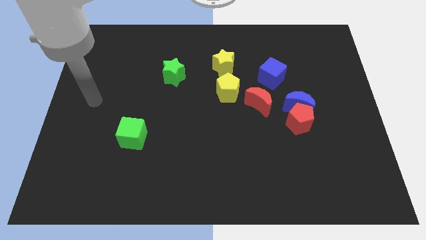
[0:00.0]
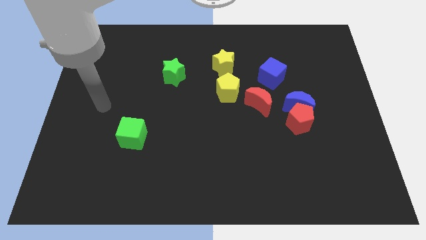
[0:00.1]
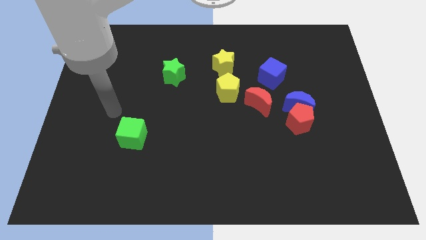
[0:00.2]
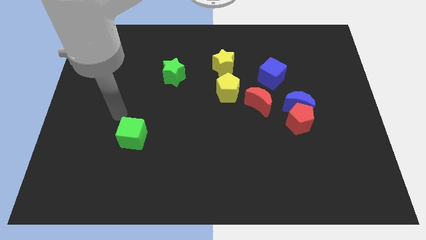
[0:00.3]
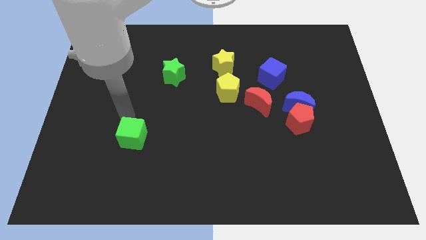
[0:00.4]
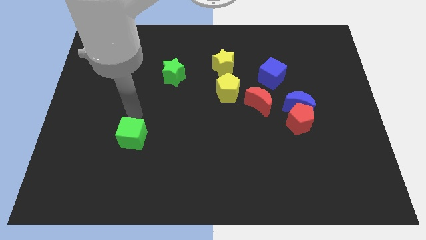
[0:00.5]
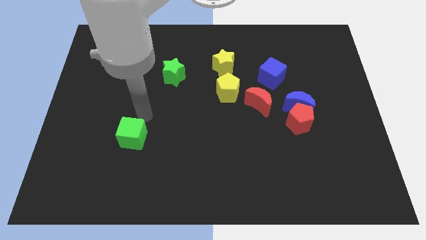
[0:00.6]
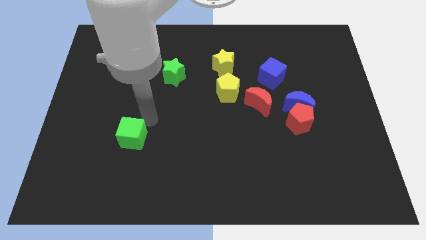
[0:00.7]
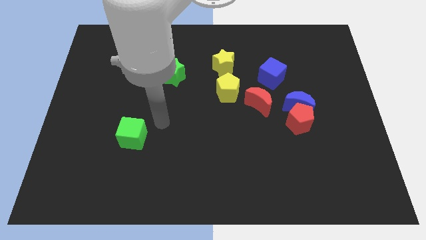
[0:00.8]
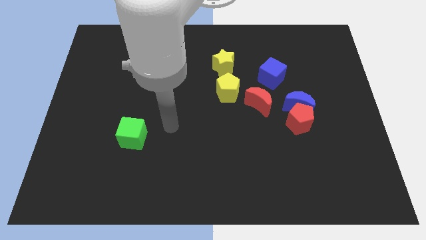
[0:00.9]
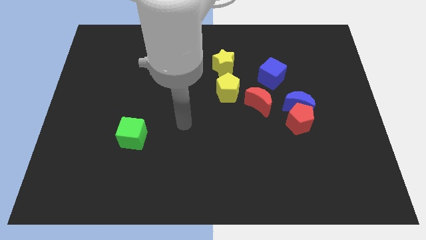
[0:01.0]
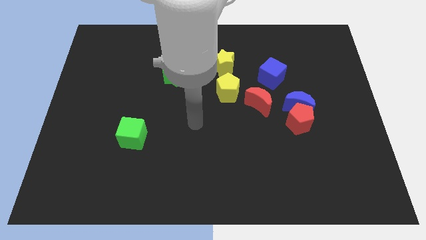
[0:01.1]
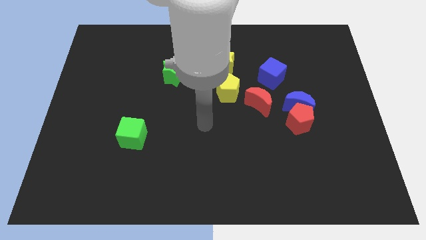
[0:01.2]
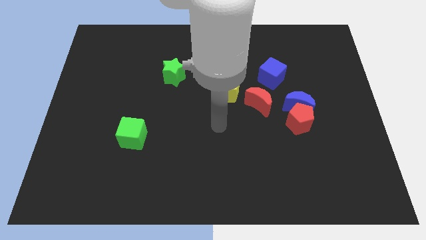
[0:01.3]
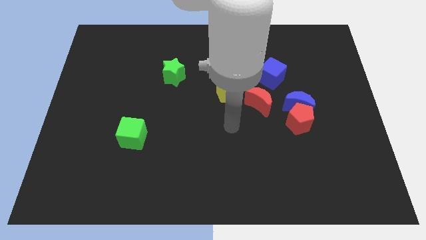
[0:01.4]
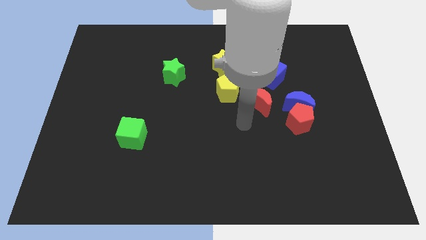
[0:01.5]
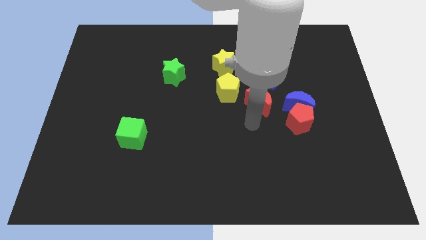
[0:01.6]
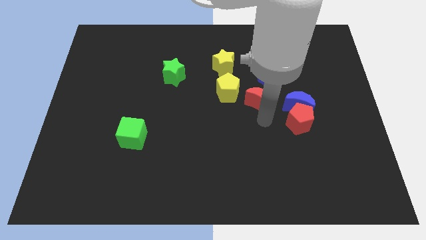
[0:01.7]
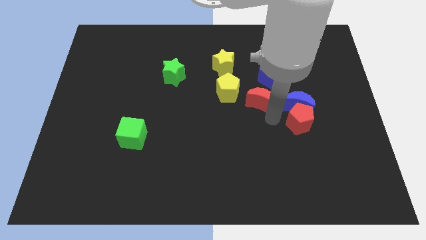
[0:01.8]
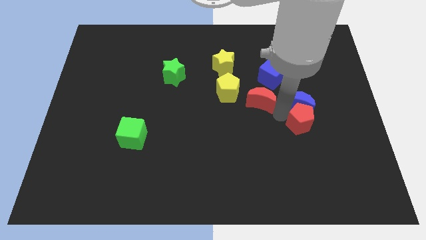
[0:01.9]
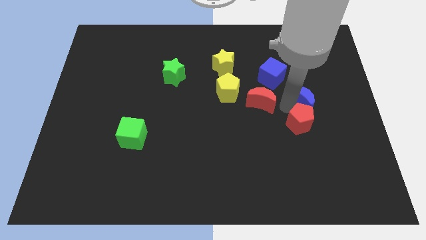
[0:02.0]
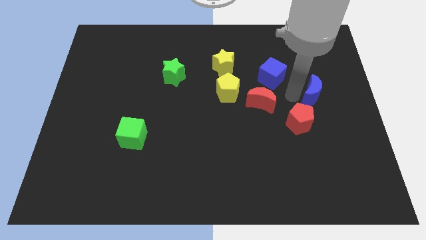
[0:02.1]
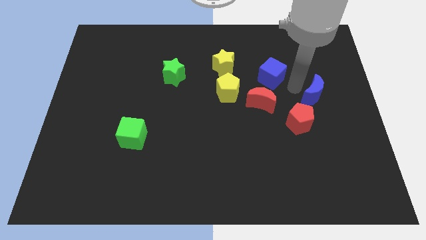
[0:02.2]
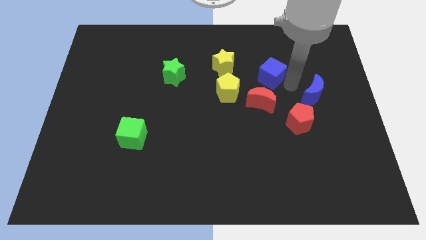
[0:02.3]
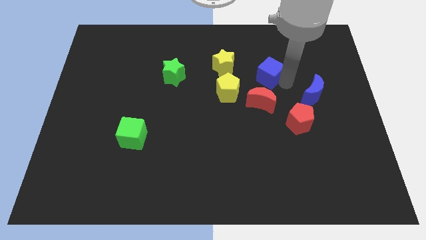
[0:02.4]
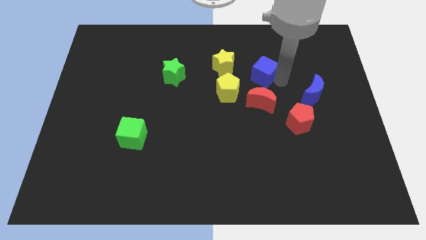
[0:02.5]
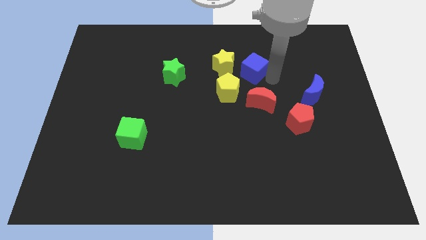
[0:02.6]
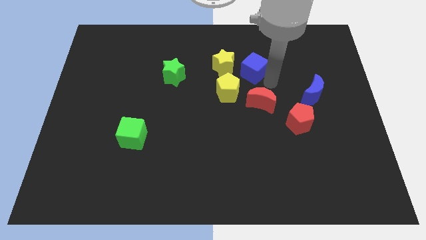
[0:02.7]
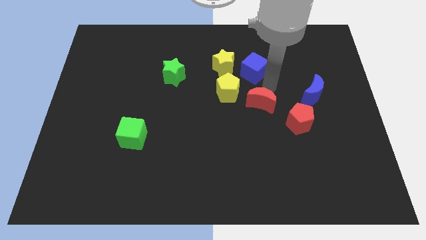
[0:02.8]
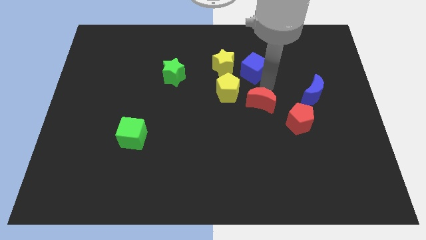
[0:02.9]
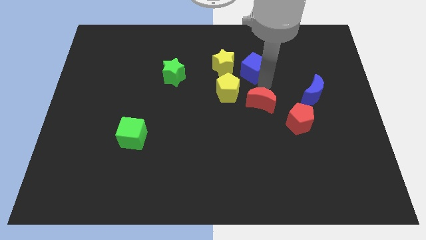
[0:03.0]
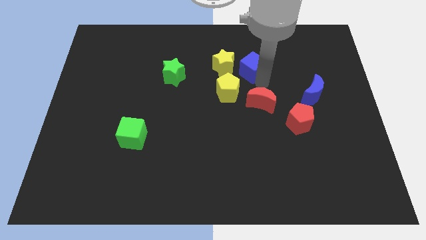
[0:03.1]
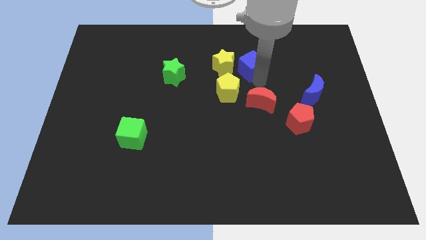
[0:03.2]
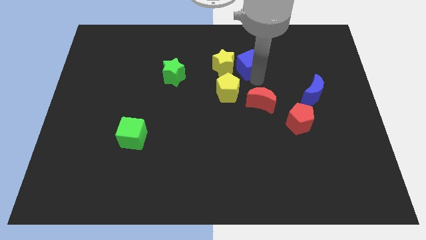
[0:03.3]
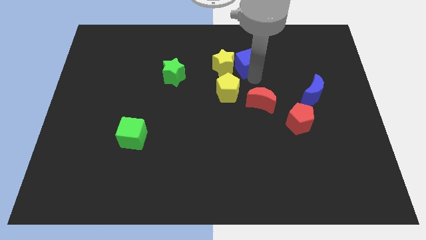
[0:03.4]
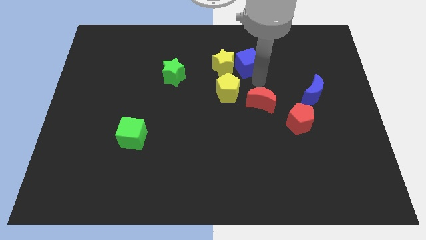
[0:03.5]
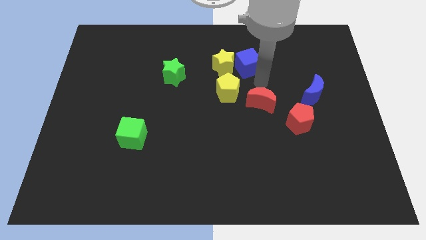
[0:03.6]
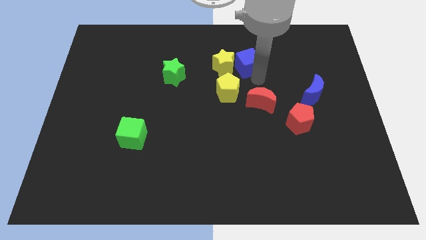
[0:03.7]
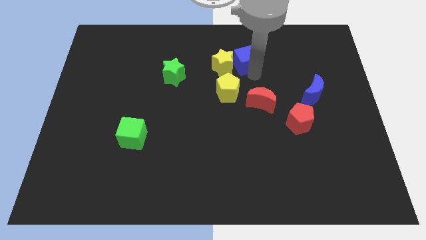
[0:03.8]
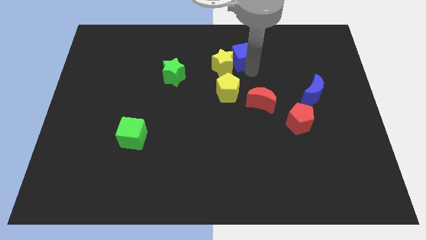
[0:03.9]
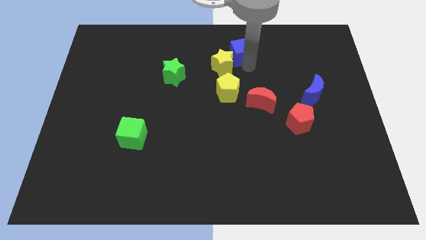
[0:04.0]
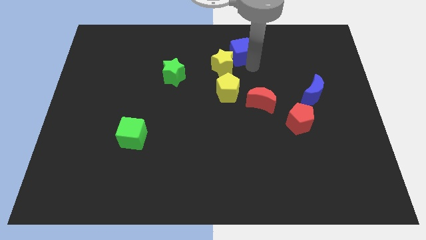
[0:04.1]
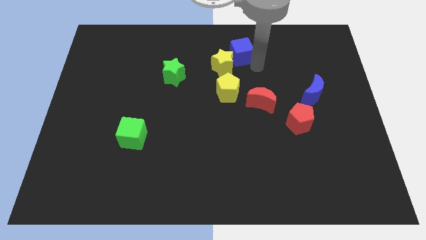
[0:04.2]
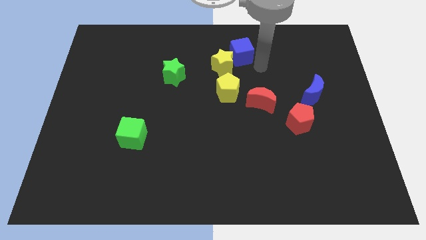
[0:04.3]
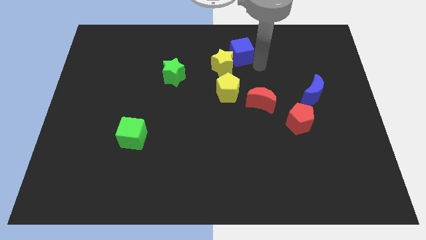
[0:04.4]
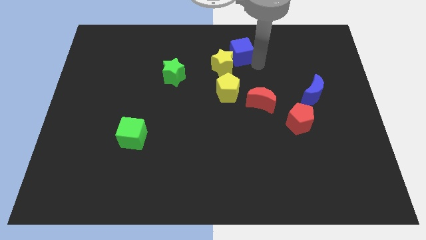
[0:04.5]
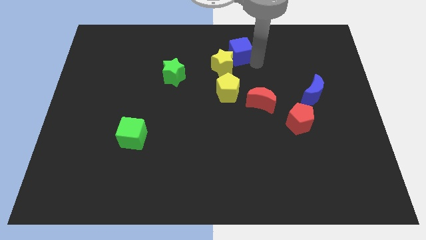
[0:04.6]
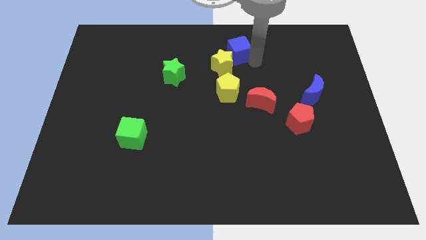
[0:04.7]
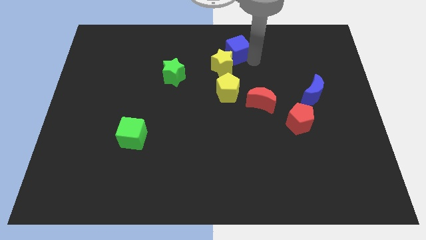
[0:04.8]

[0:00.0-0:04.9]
put the blue cube to the top side

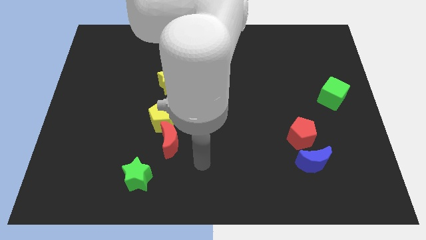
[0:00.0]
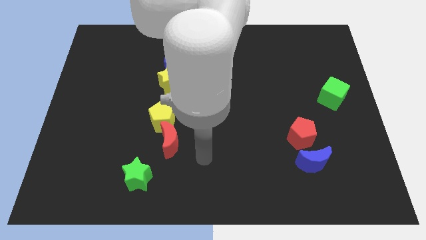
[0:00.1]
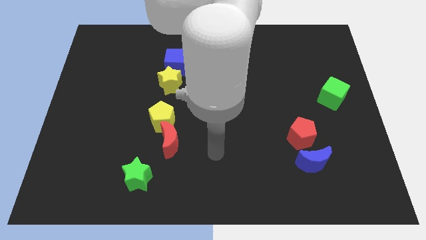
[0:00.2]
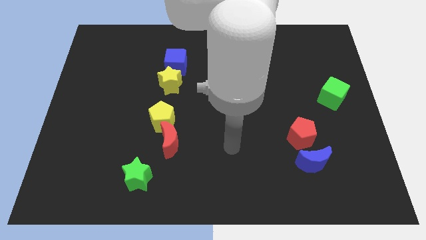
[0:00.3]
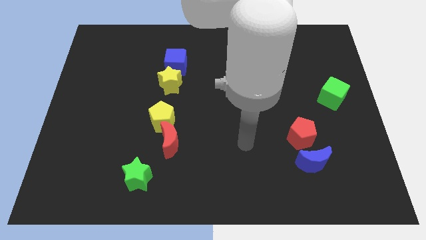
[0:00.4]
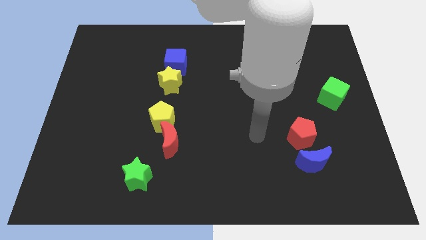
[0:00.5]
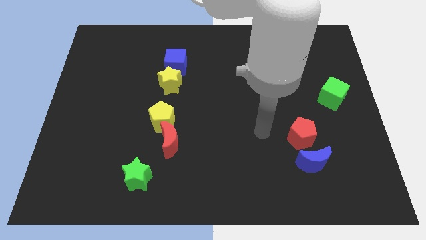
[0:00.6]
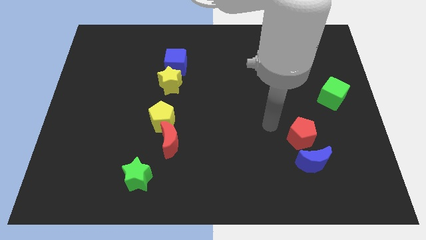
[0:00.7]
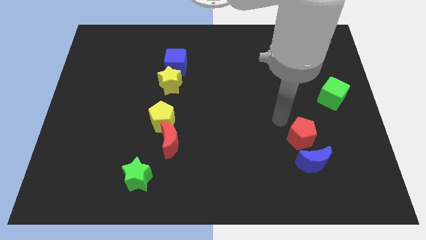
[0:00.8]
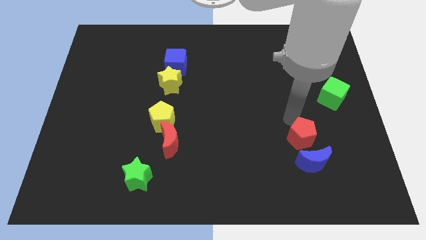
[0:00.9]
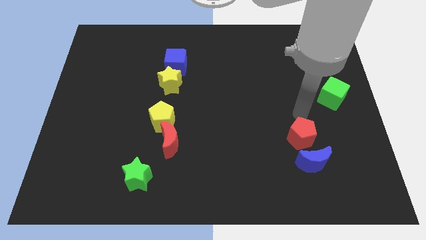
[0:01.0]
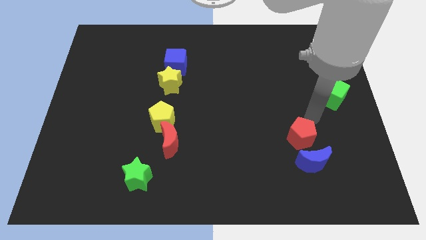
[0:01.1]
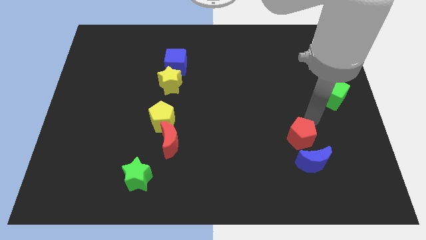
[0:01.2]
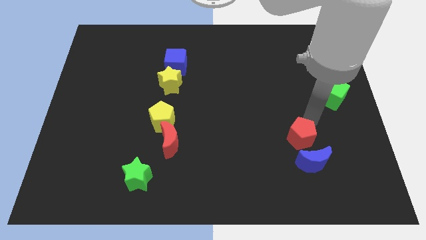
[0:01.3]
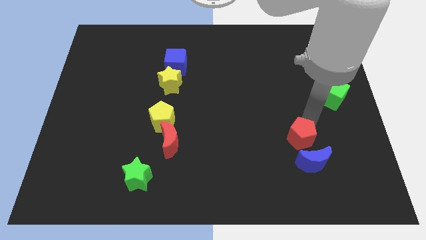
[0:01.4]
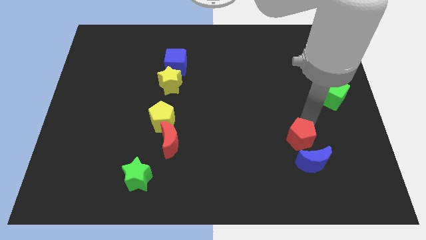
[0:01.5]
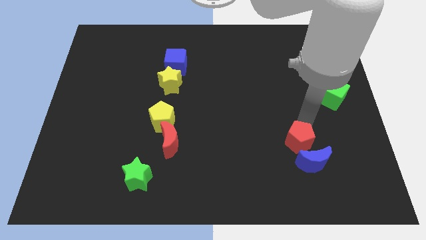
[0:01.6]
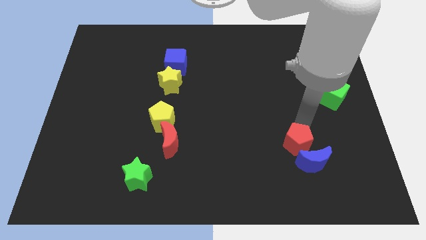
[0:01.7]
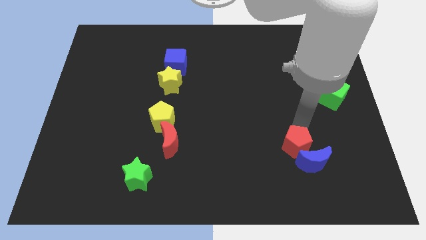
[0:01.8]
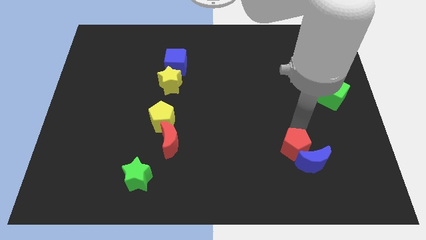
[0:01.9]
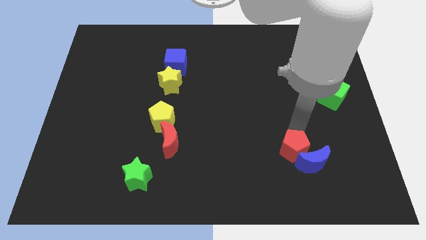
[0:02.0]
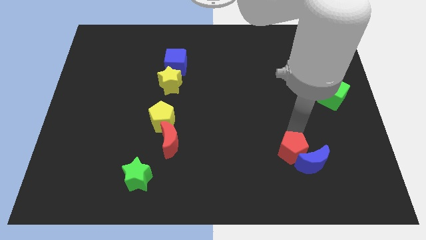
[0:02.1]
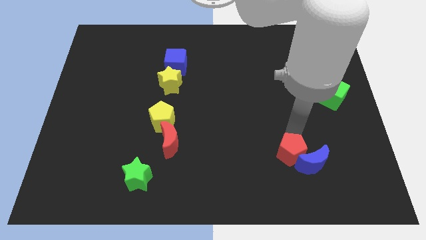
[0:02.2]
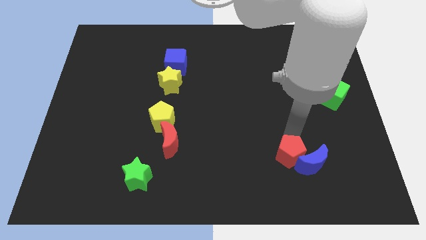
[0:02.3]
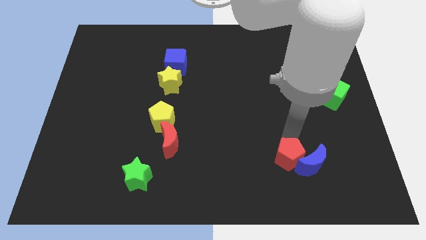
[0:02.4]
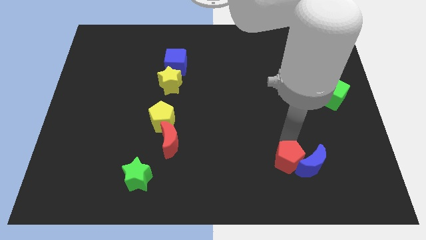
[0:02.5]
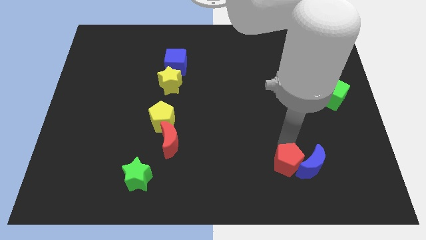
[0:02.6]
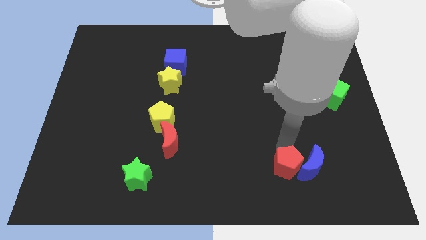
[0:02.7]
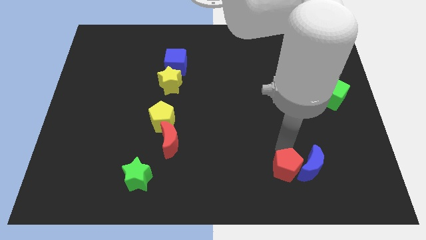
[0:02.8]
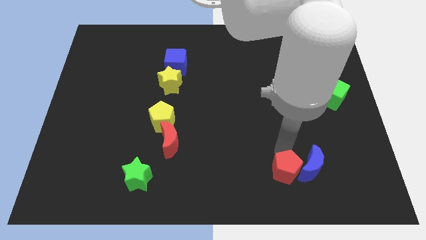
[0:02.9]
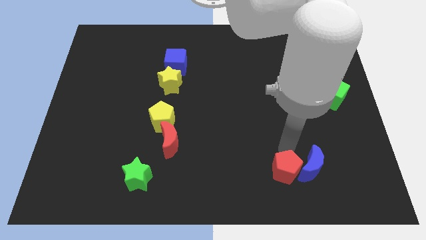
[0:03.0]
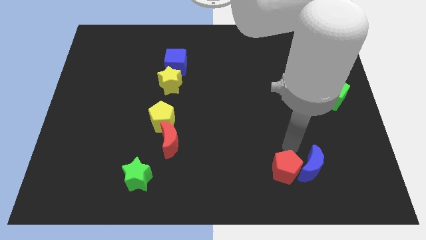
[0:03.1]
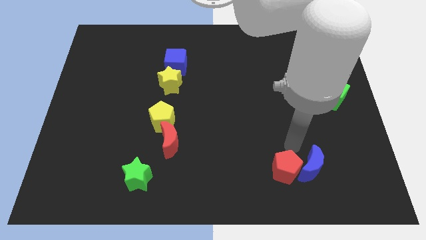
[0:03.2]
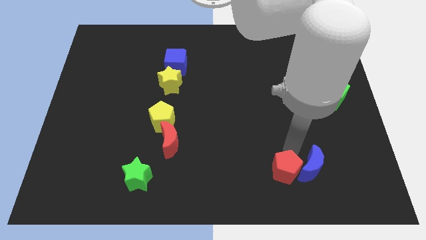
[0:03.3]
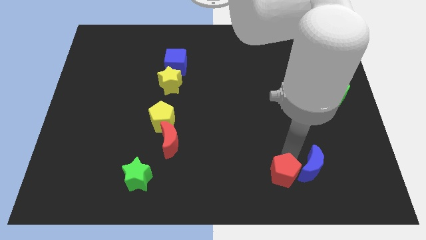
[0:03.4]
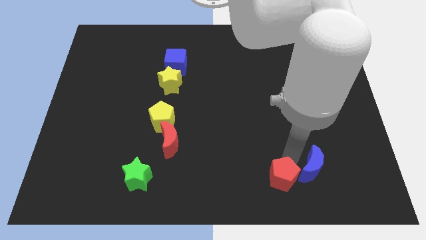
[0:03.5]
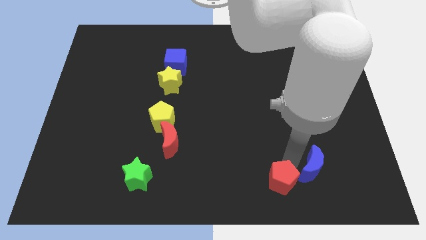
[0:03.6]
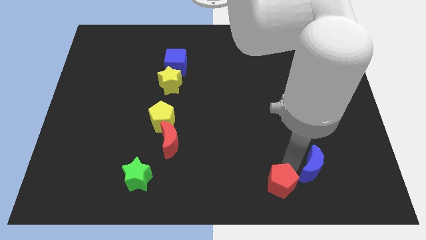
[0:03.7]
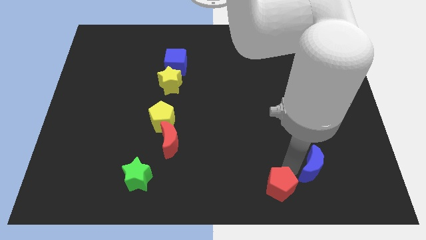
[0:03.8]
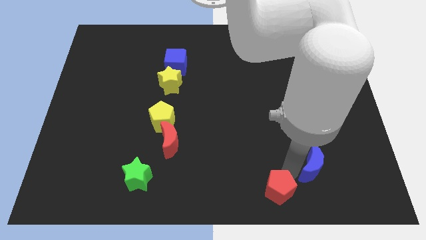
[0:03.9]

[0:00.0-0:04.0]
slide the red pentagon to the bottom side
